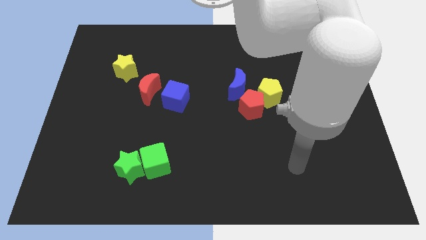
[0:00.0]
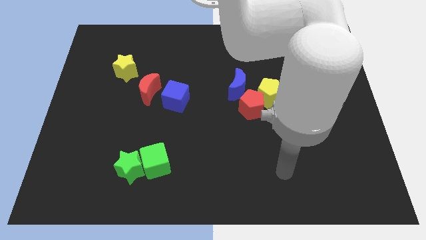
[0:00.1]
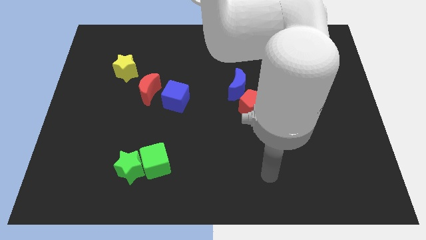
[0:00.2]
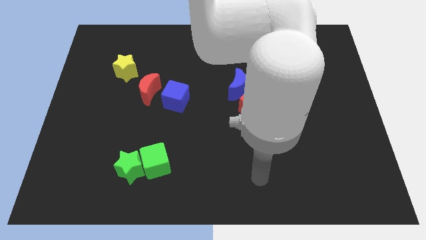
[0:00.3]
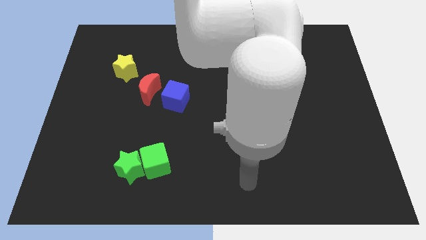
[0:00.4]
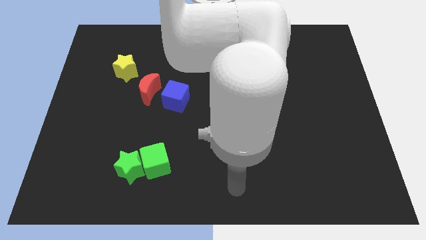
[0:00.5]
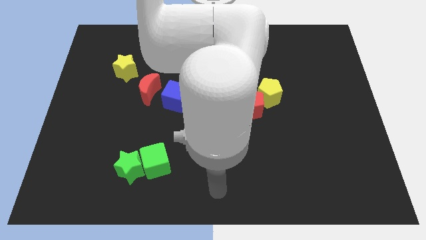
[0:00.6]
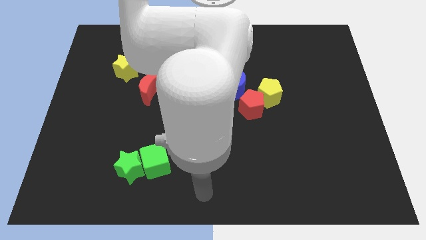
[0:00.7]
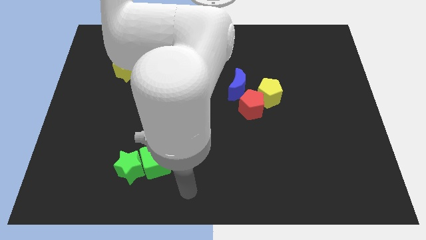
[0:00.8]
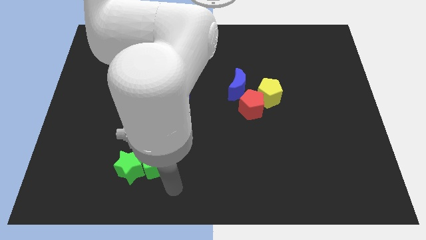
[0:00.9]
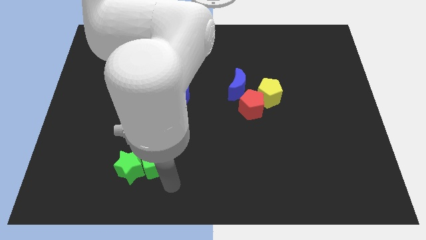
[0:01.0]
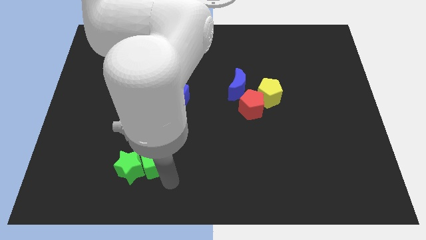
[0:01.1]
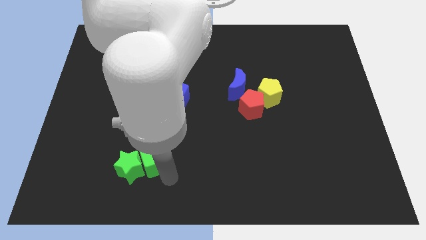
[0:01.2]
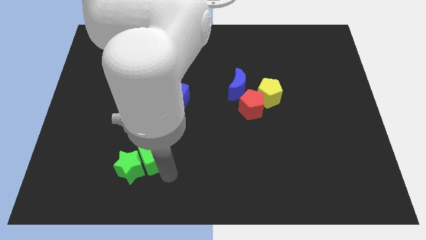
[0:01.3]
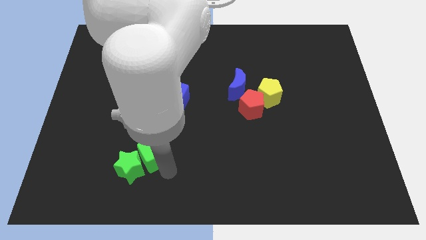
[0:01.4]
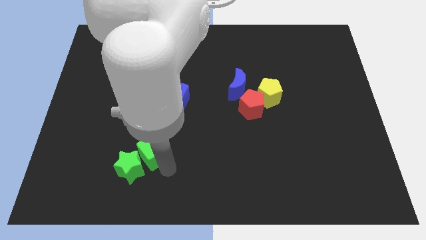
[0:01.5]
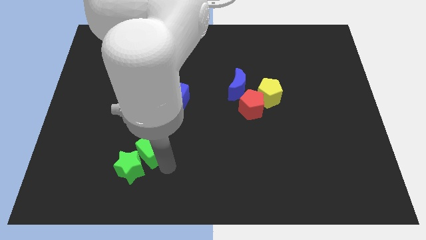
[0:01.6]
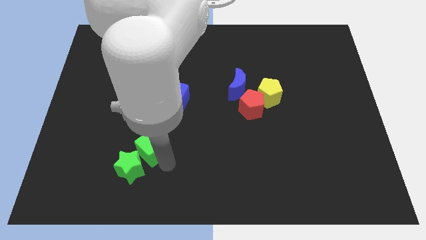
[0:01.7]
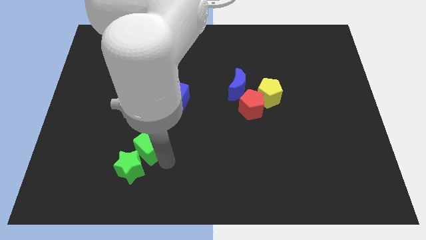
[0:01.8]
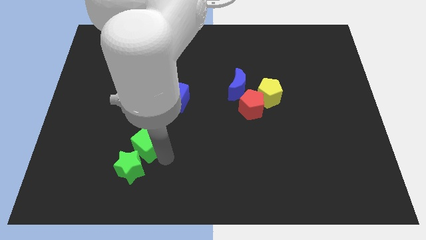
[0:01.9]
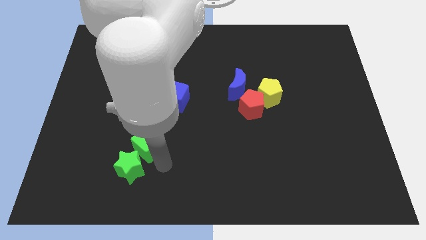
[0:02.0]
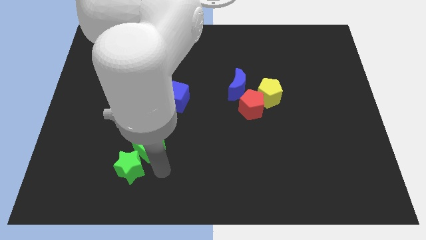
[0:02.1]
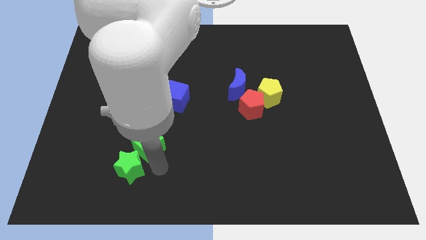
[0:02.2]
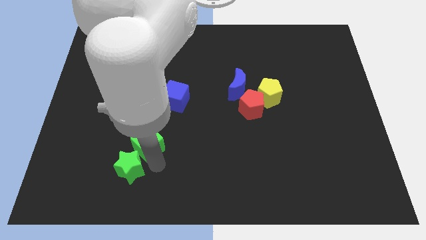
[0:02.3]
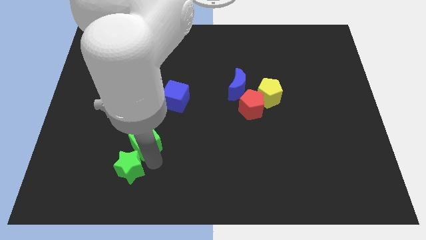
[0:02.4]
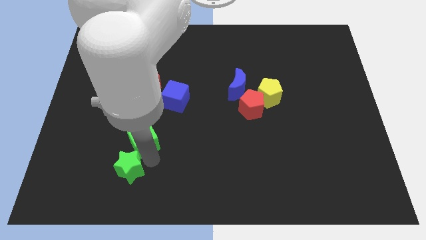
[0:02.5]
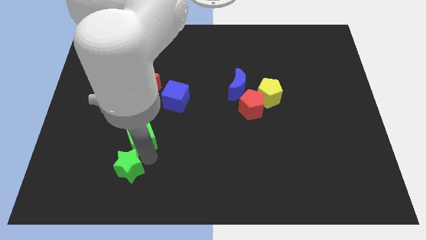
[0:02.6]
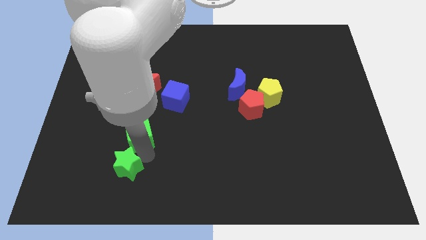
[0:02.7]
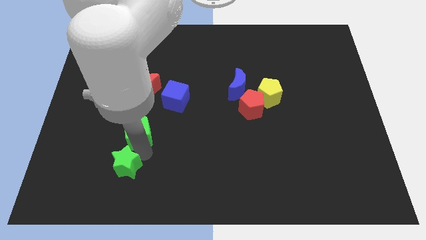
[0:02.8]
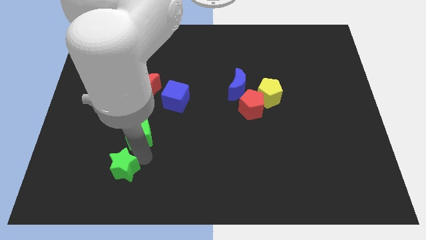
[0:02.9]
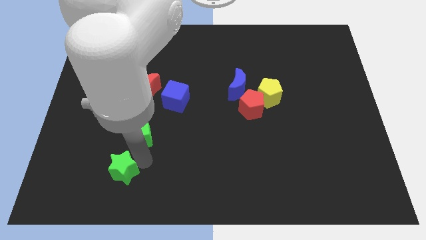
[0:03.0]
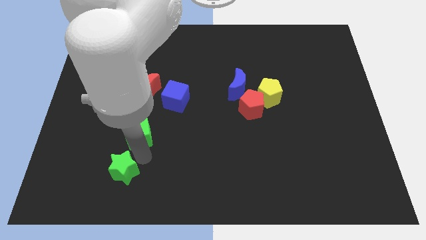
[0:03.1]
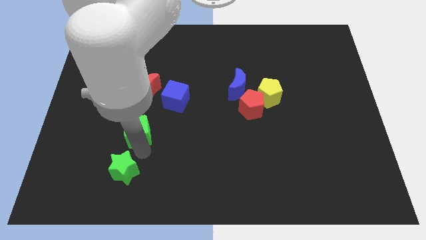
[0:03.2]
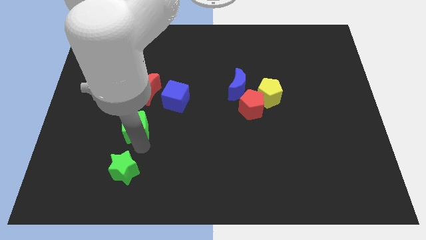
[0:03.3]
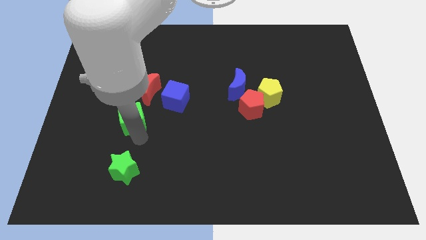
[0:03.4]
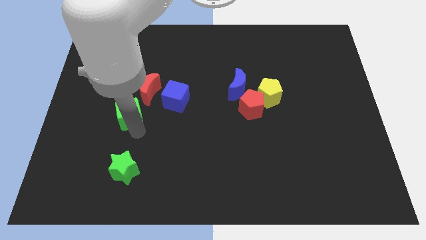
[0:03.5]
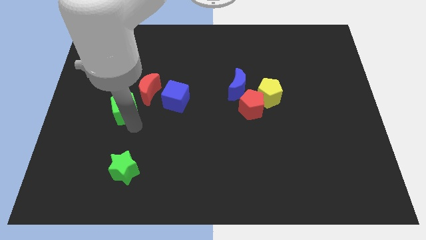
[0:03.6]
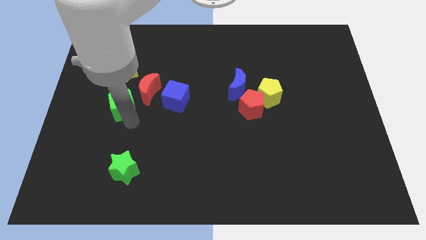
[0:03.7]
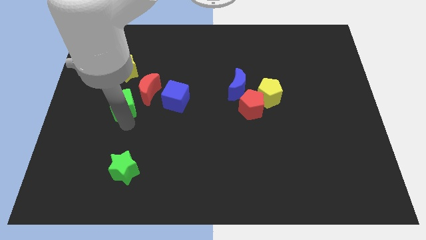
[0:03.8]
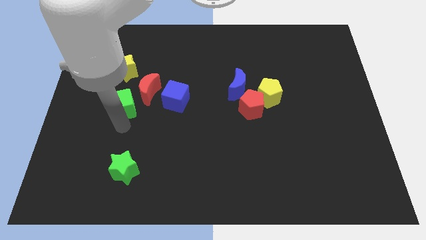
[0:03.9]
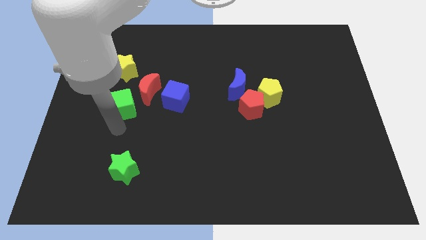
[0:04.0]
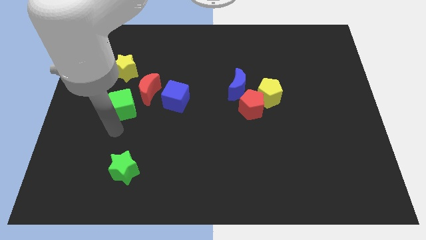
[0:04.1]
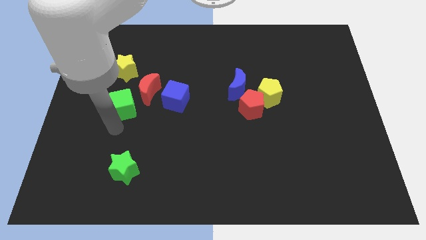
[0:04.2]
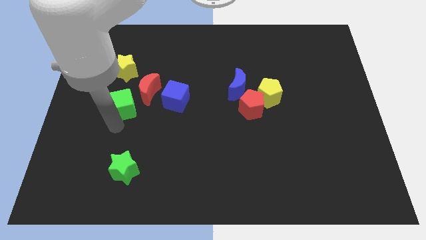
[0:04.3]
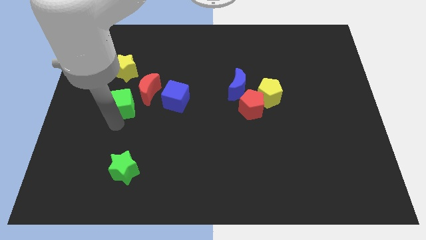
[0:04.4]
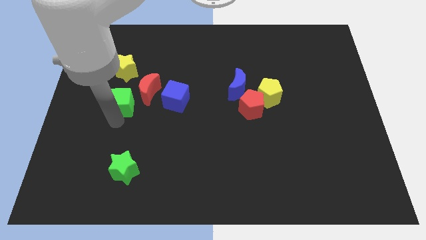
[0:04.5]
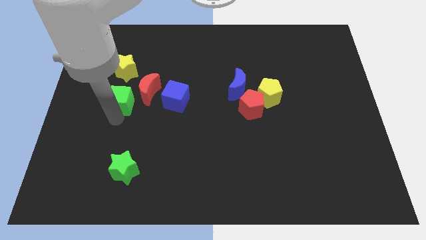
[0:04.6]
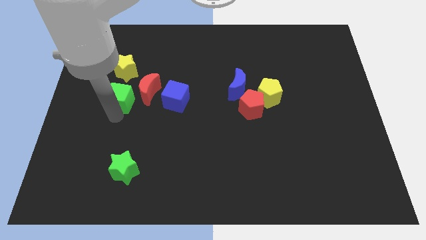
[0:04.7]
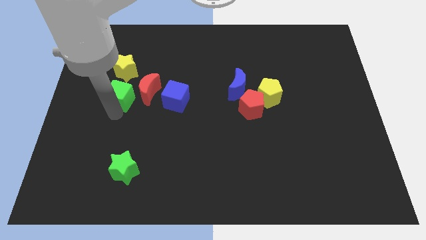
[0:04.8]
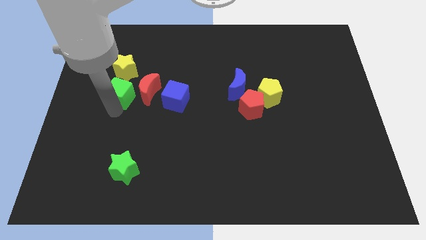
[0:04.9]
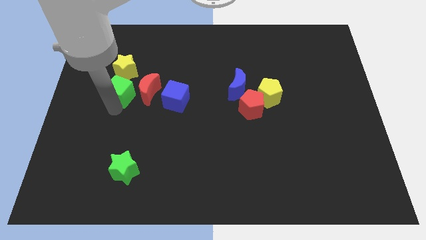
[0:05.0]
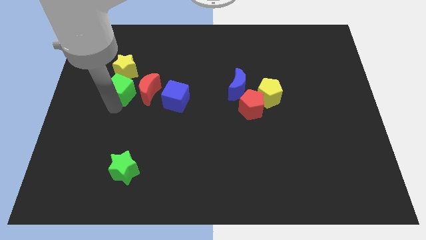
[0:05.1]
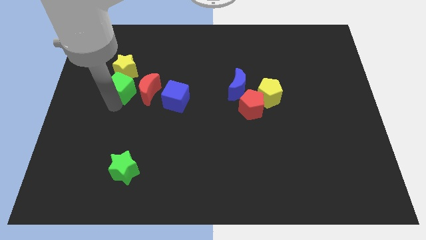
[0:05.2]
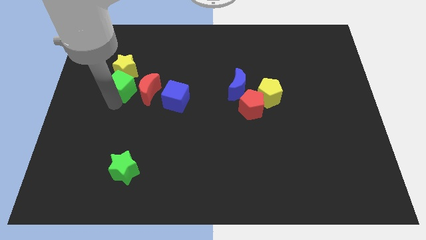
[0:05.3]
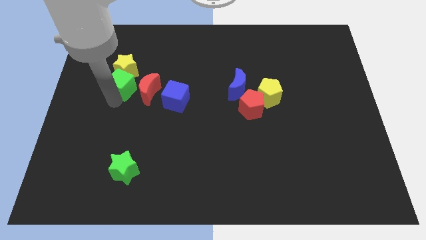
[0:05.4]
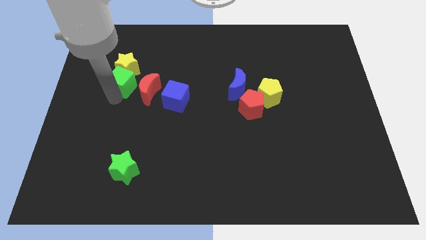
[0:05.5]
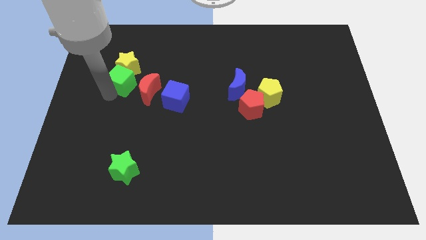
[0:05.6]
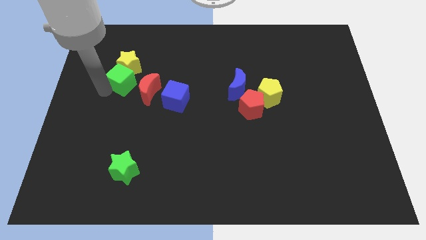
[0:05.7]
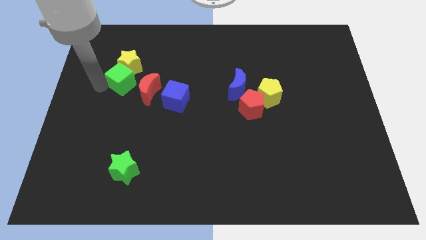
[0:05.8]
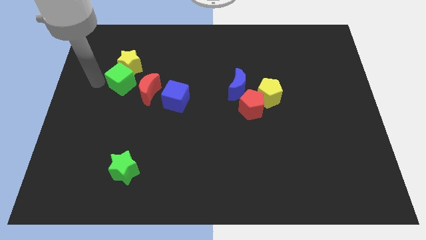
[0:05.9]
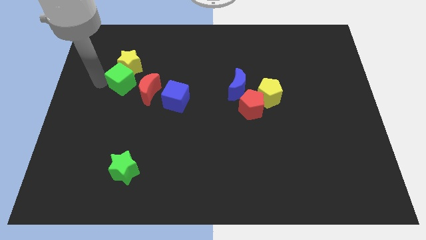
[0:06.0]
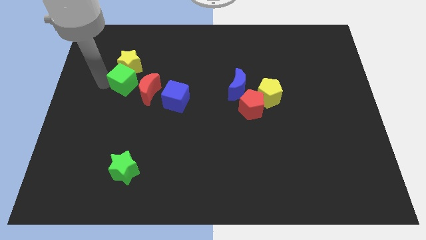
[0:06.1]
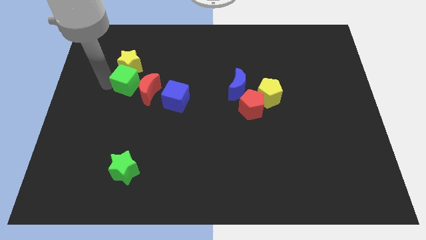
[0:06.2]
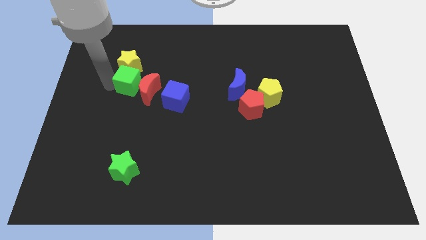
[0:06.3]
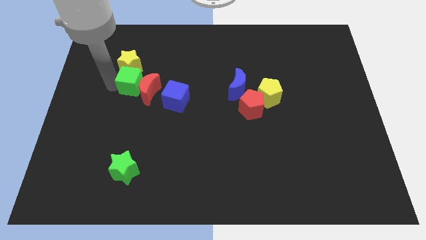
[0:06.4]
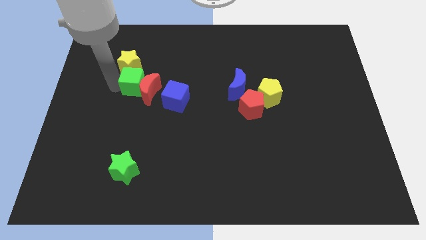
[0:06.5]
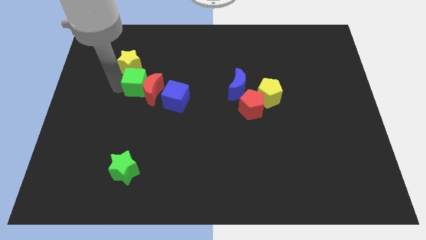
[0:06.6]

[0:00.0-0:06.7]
move the green cube to the top left of the blue cube
